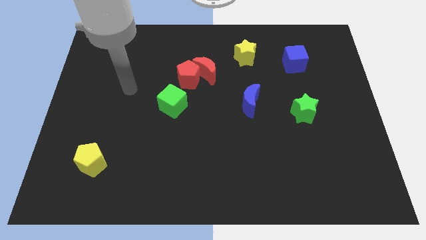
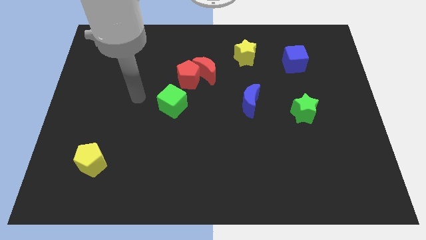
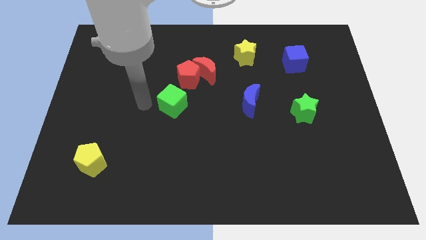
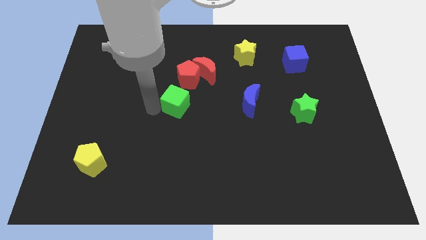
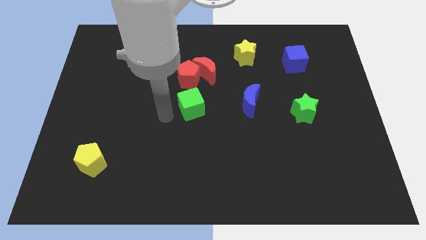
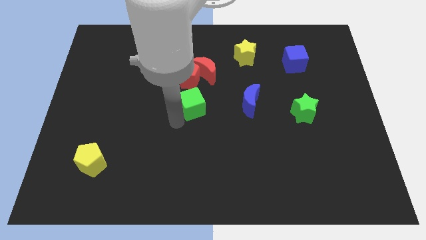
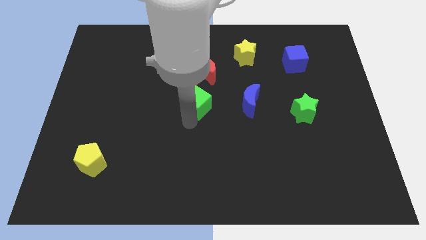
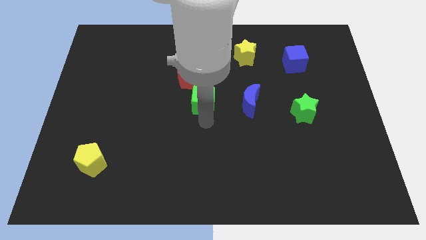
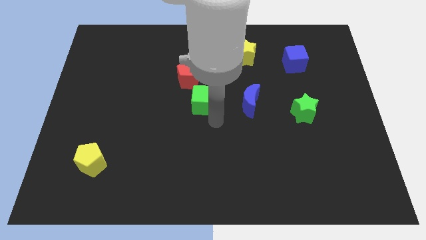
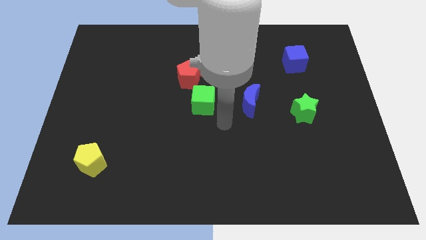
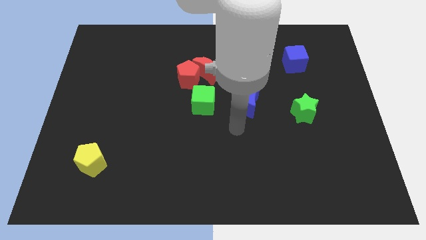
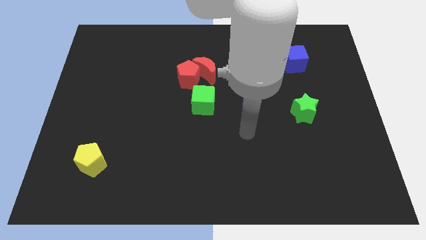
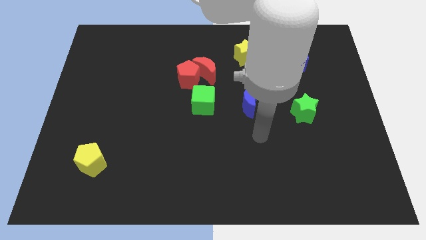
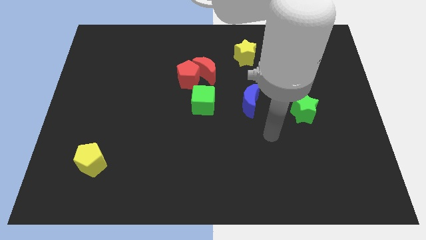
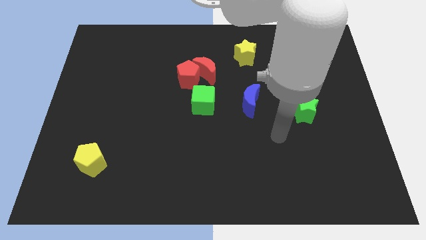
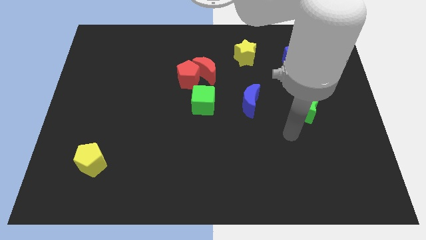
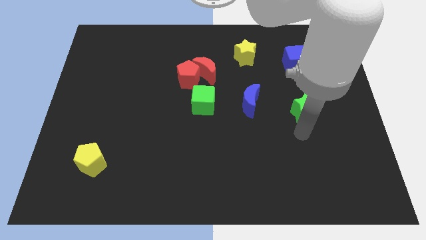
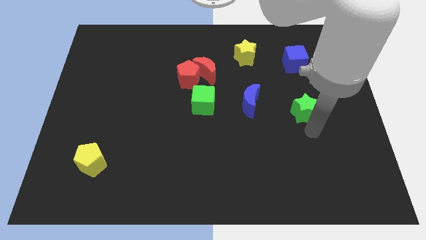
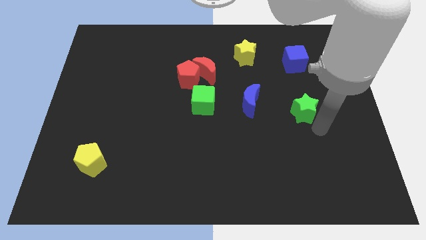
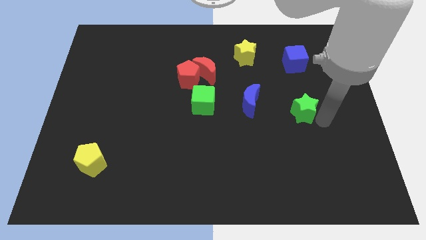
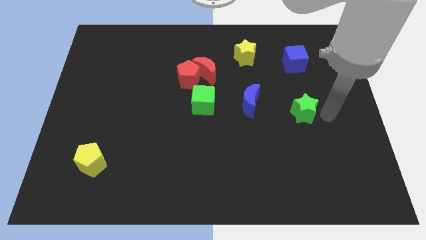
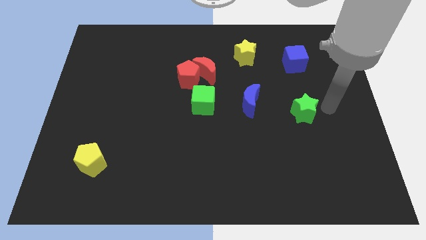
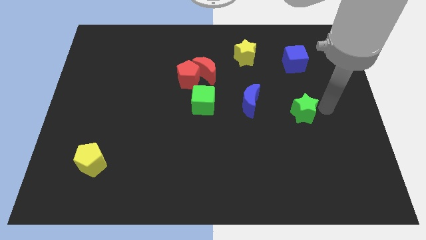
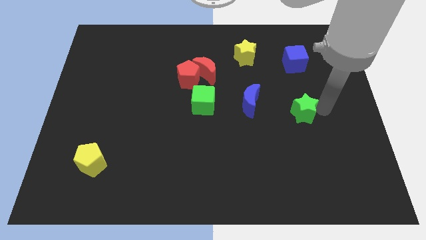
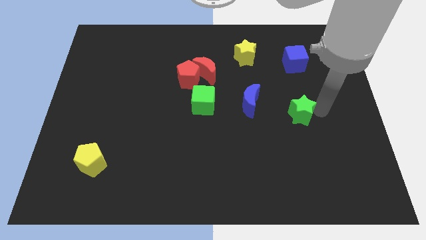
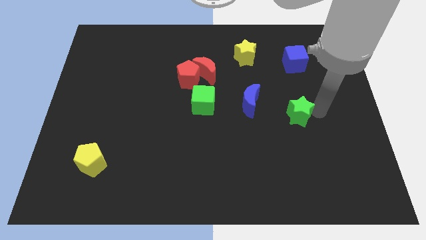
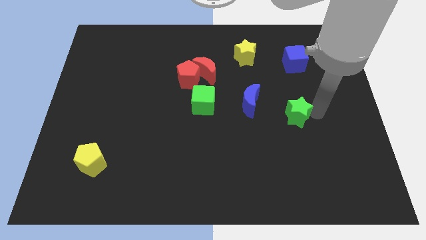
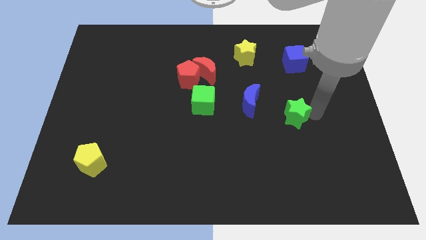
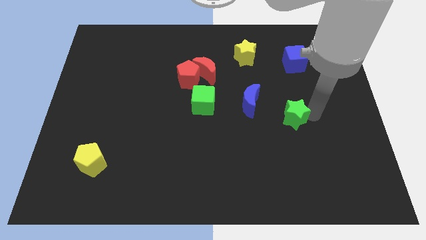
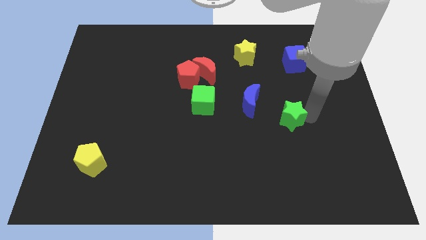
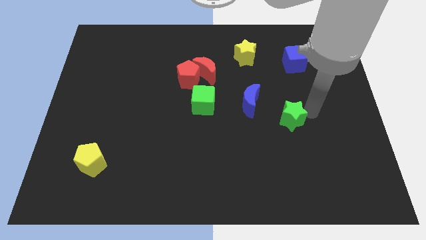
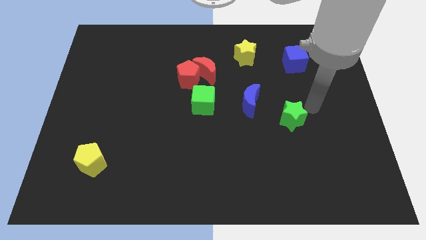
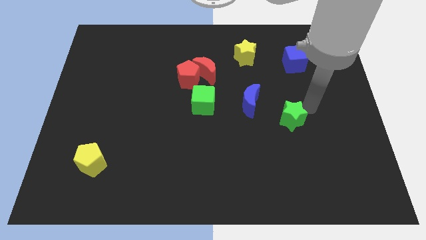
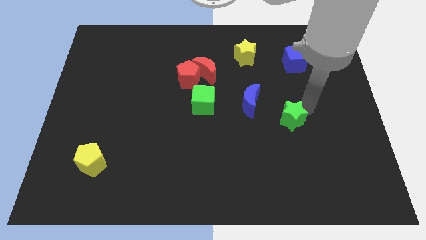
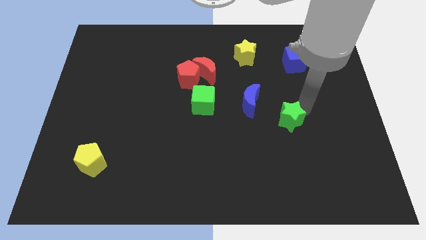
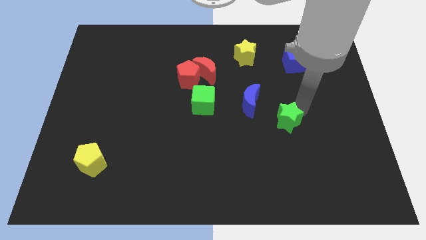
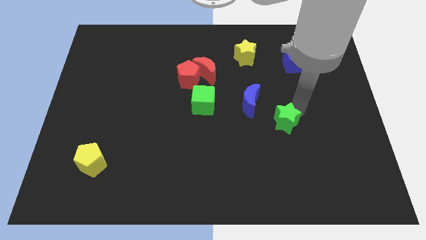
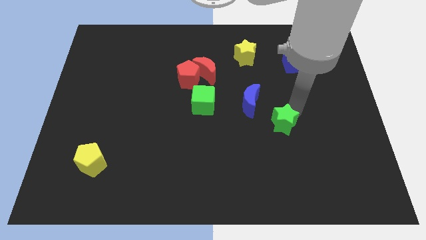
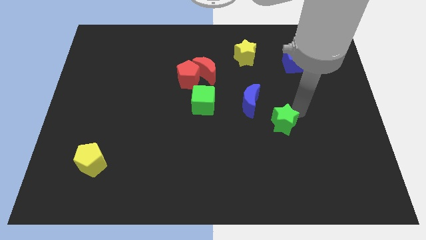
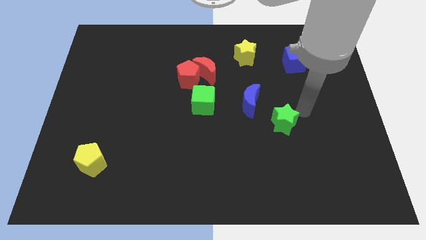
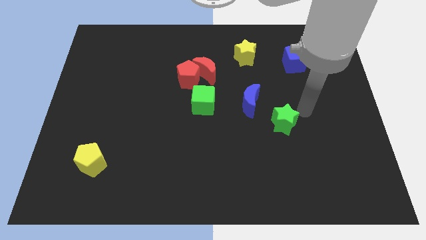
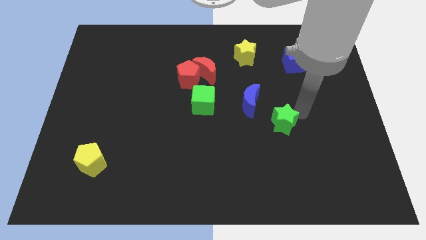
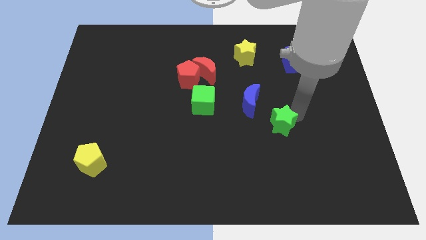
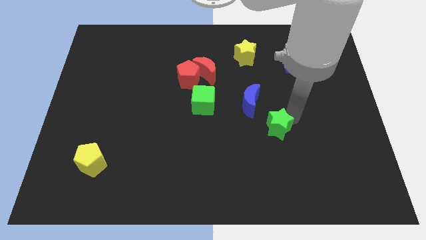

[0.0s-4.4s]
slightly move the green star diagonally down and to the left

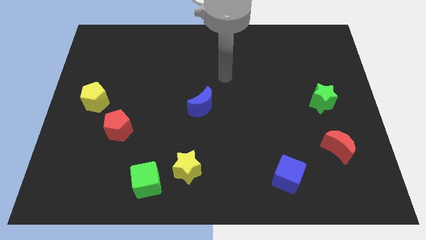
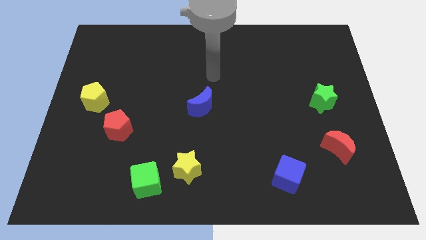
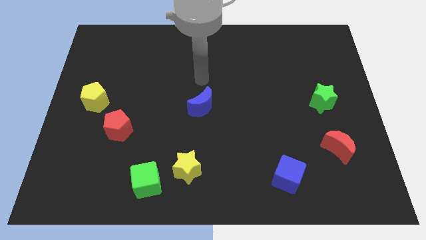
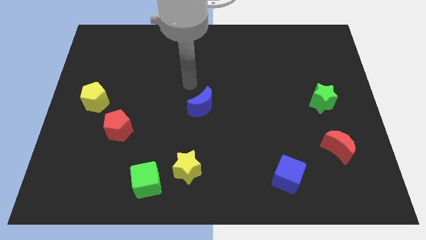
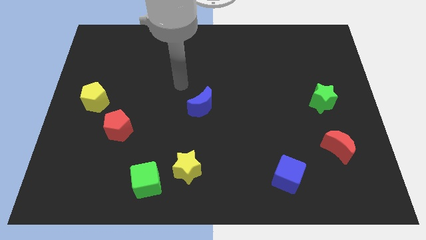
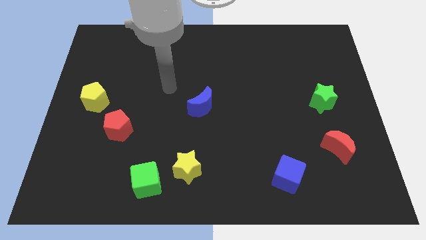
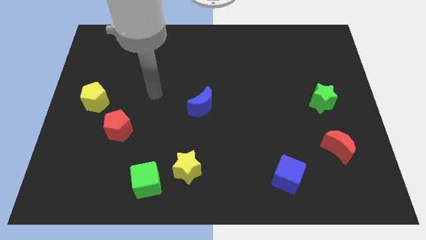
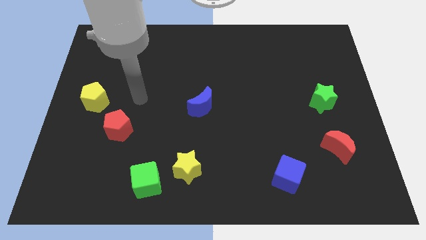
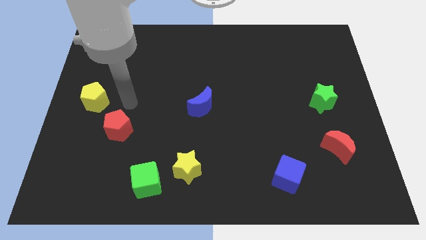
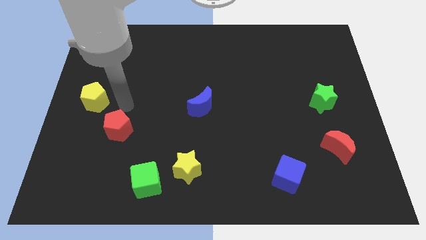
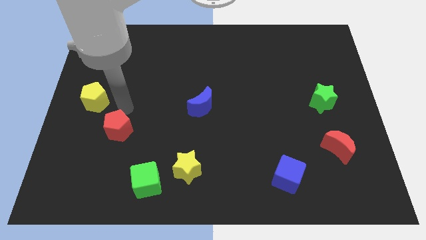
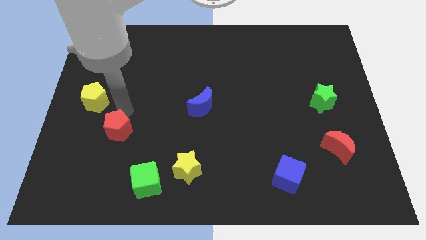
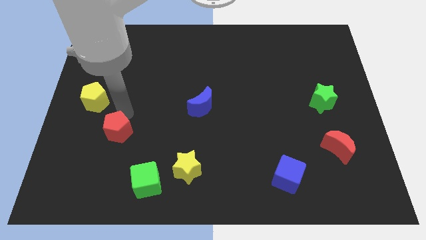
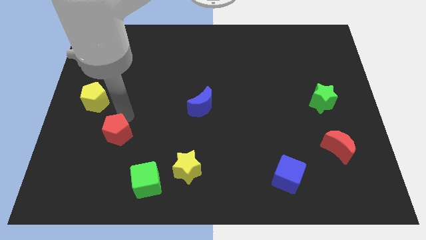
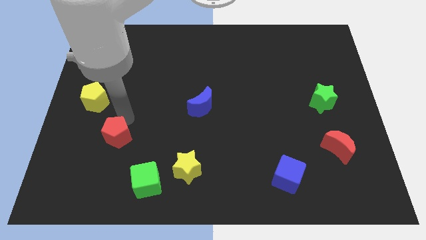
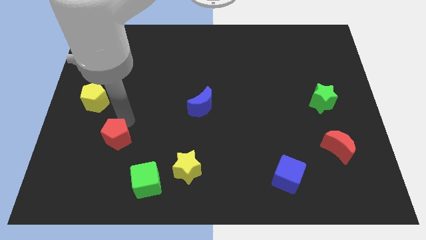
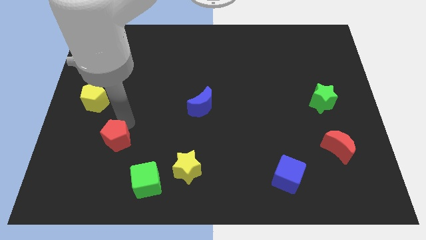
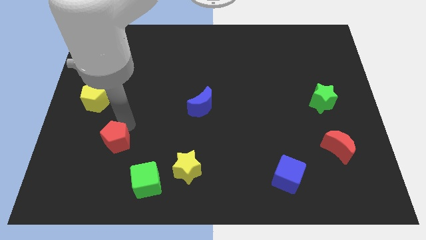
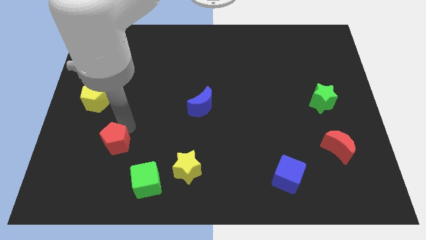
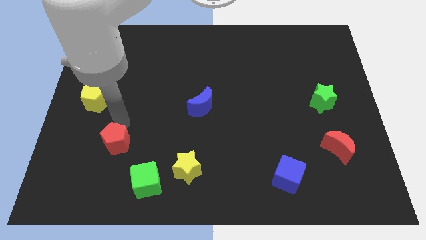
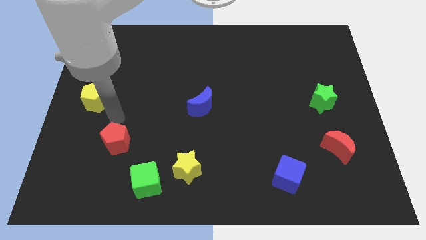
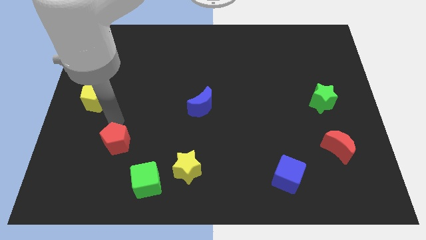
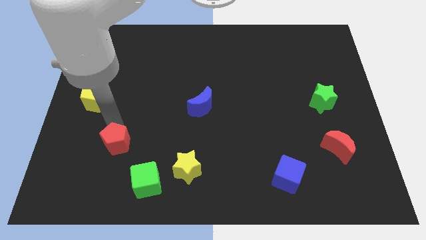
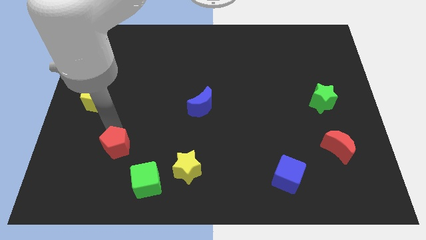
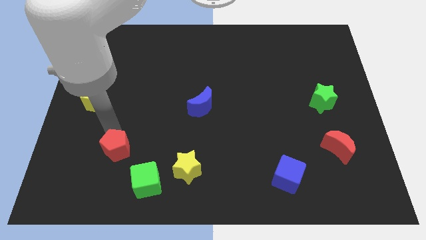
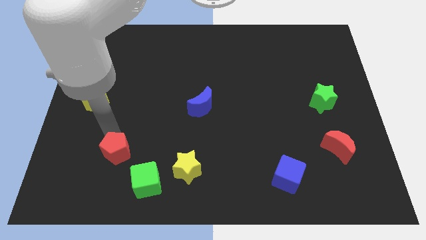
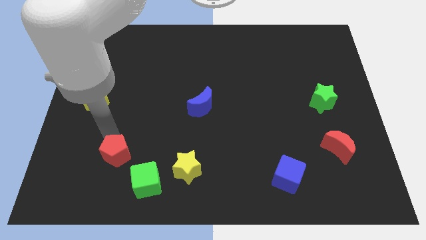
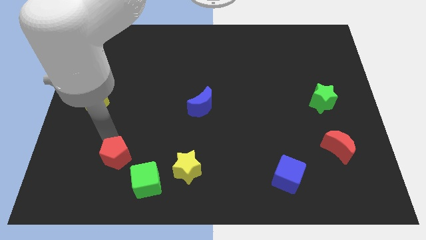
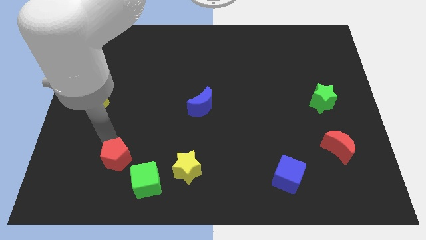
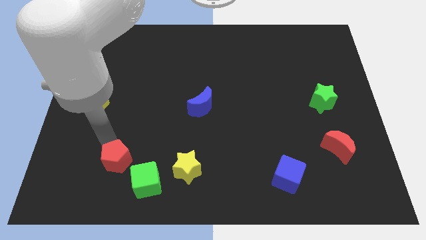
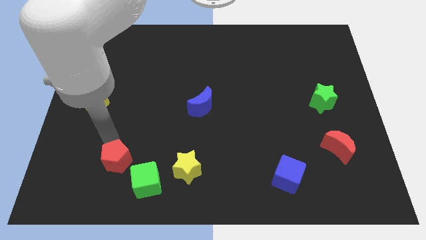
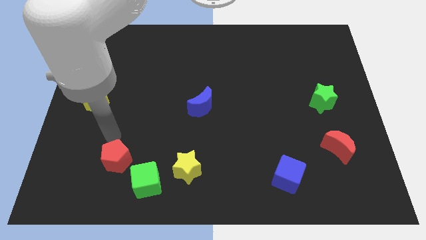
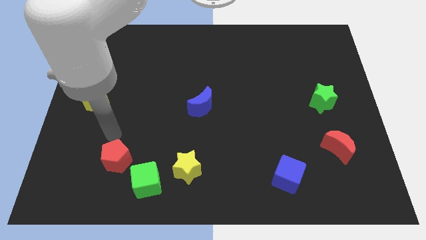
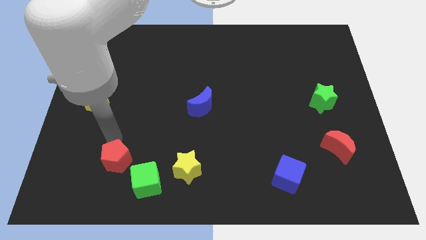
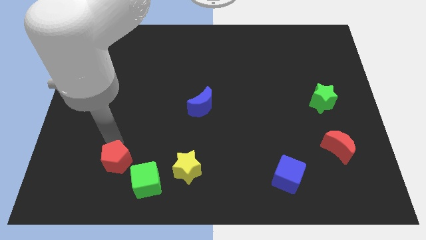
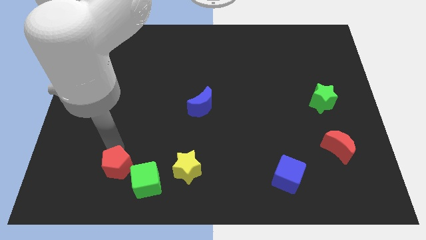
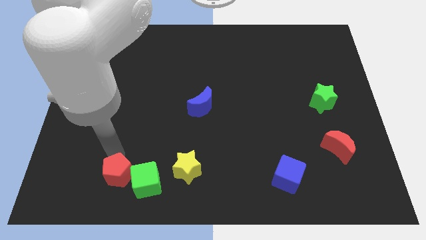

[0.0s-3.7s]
slide the red pentagon diagonally downwards and right a little
